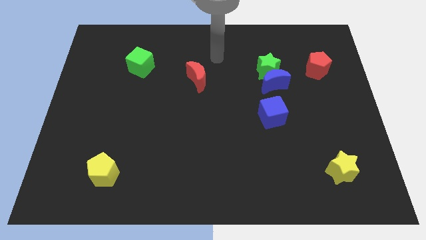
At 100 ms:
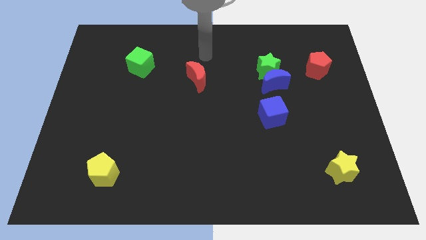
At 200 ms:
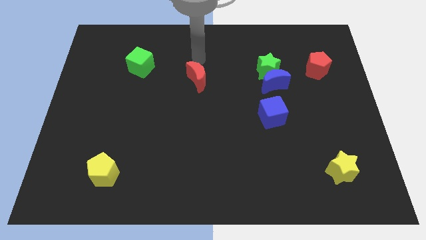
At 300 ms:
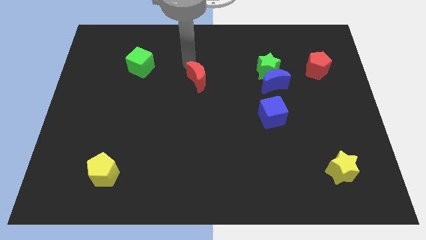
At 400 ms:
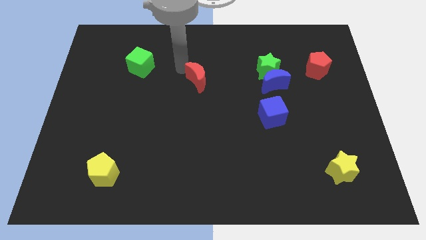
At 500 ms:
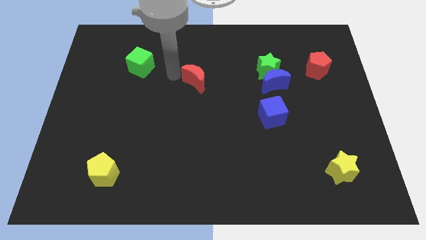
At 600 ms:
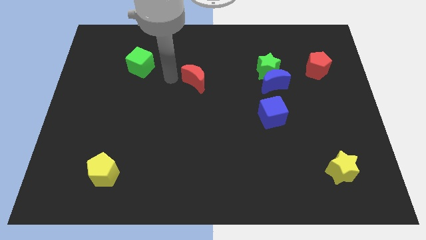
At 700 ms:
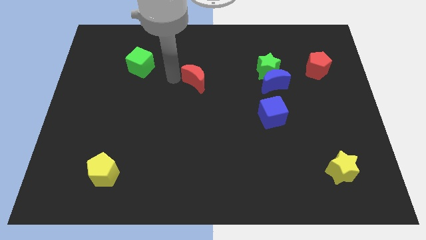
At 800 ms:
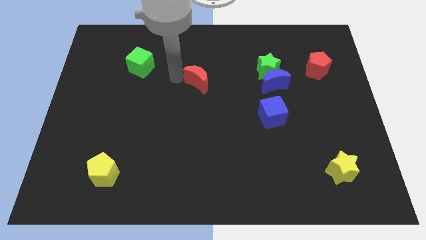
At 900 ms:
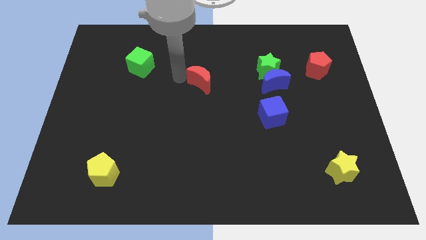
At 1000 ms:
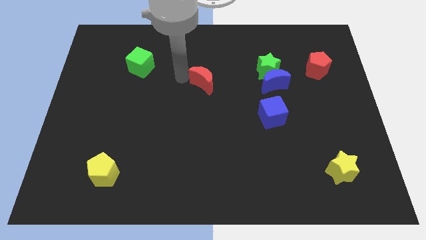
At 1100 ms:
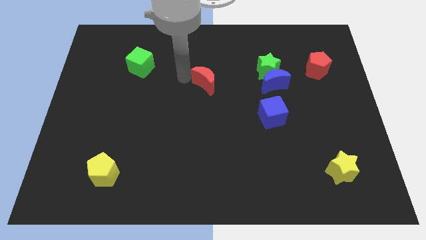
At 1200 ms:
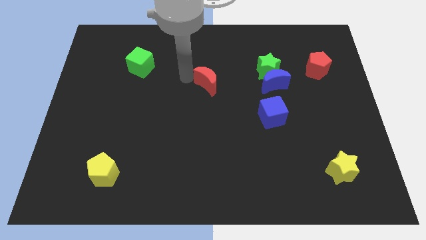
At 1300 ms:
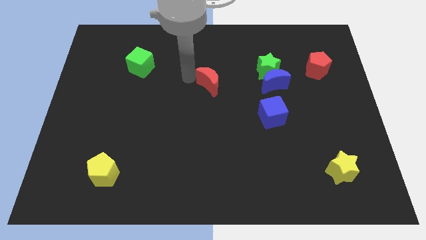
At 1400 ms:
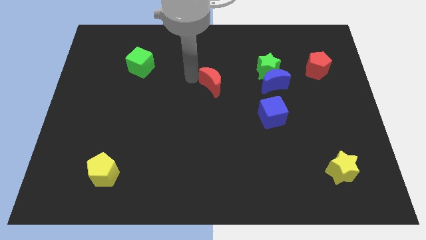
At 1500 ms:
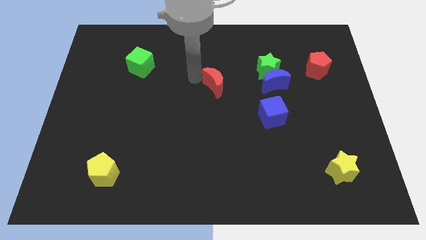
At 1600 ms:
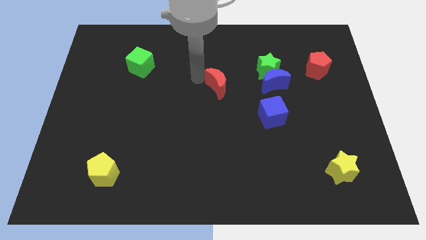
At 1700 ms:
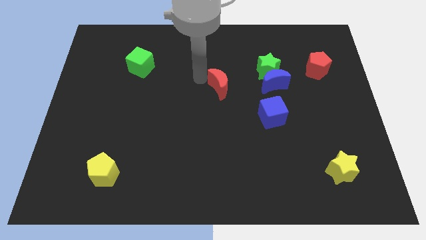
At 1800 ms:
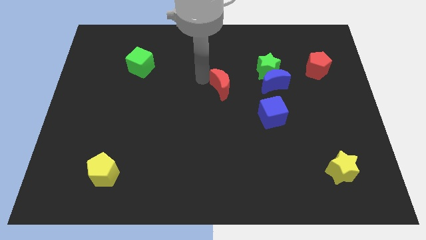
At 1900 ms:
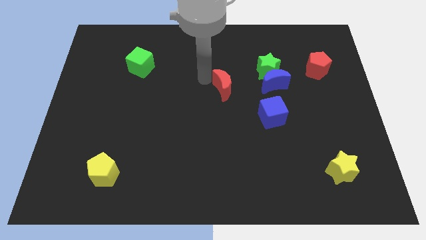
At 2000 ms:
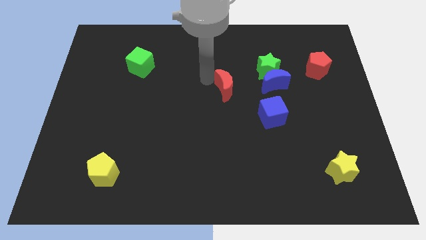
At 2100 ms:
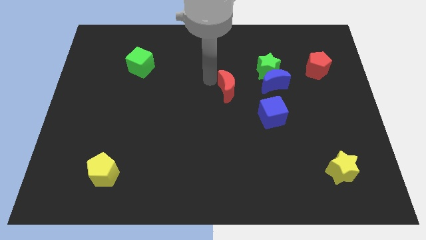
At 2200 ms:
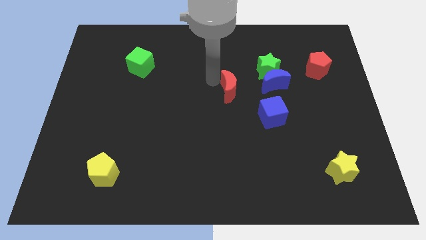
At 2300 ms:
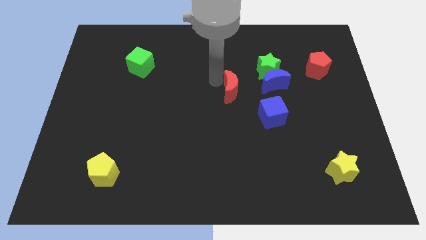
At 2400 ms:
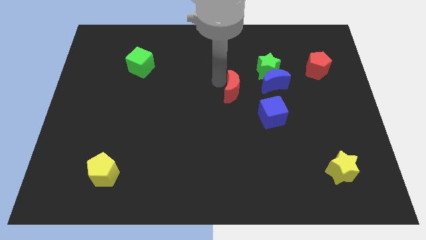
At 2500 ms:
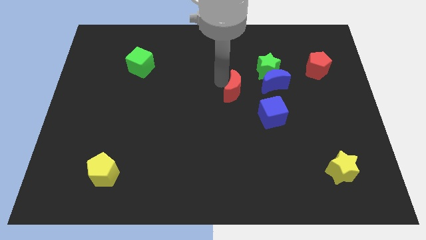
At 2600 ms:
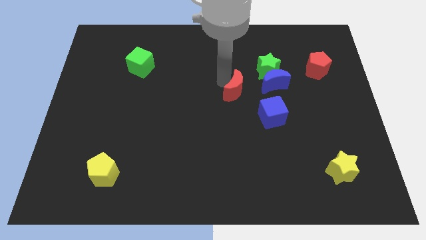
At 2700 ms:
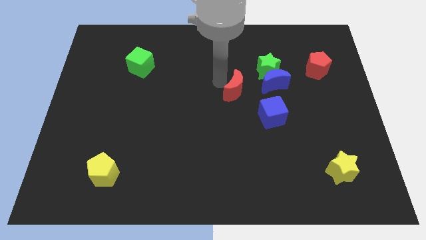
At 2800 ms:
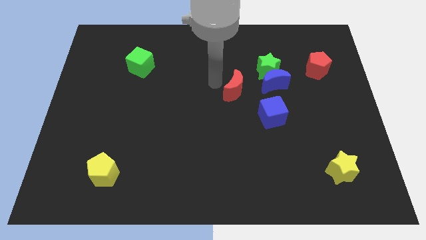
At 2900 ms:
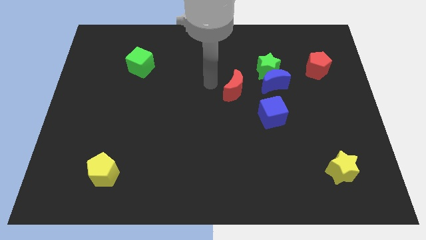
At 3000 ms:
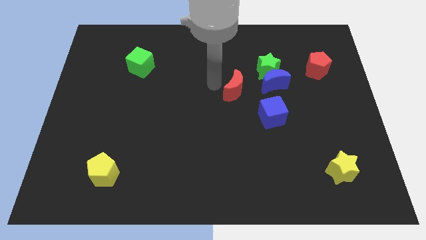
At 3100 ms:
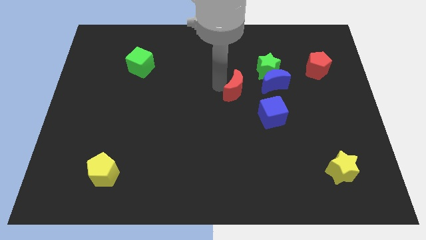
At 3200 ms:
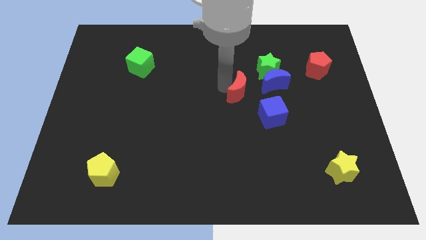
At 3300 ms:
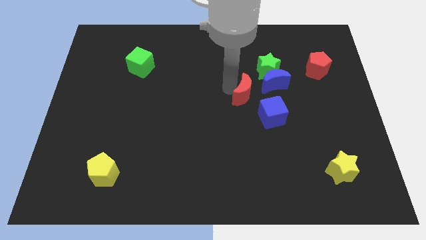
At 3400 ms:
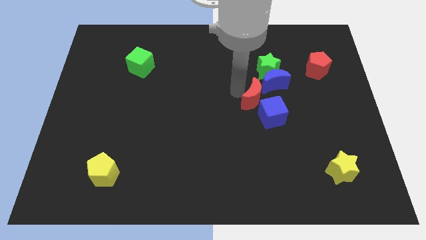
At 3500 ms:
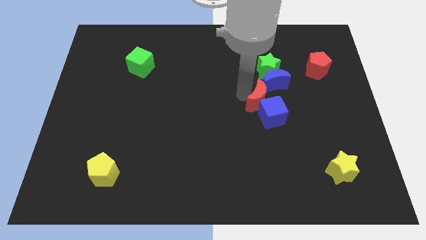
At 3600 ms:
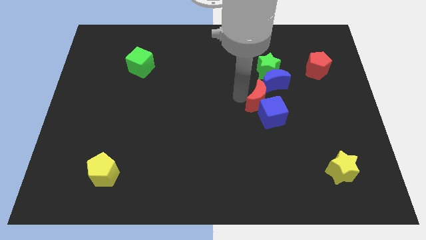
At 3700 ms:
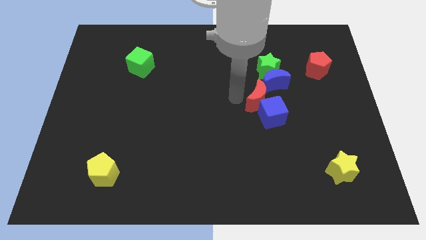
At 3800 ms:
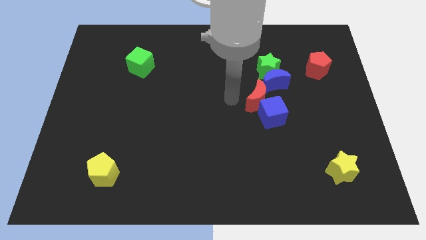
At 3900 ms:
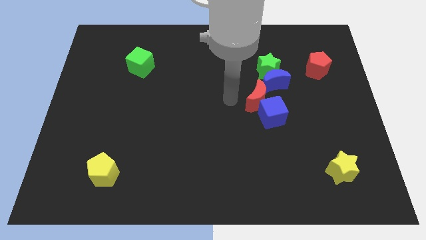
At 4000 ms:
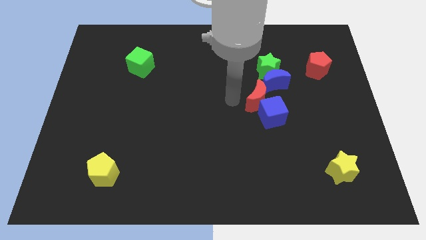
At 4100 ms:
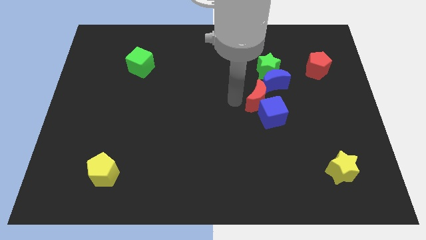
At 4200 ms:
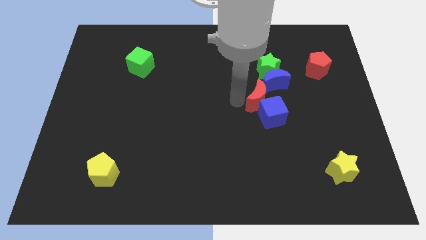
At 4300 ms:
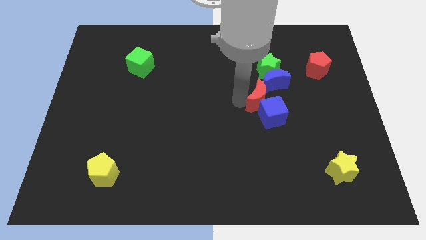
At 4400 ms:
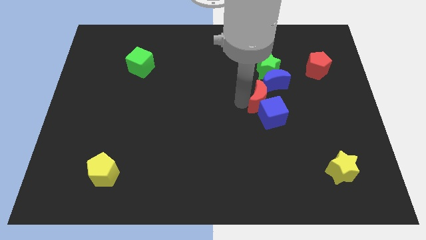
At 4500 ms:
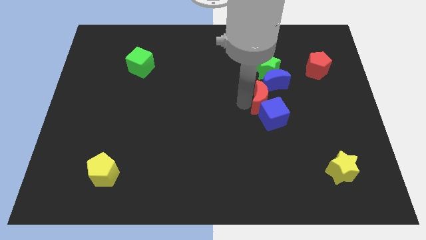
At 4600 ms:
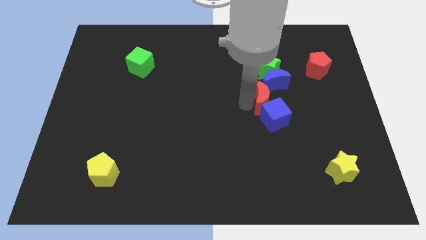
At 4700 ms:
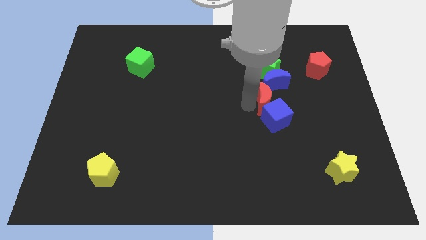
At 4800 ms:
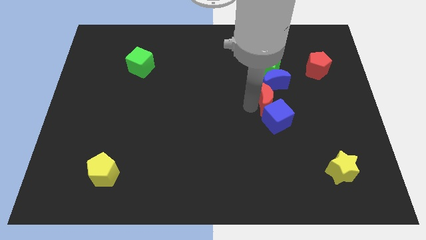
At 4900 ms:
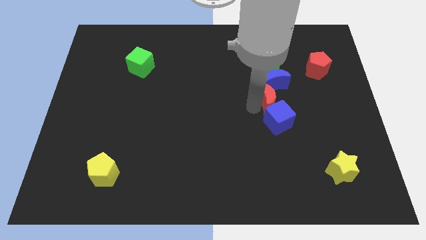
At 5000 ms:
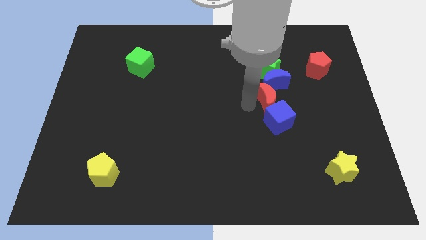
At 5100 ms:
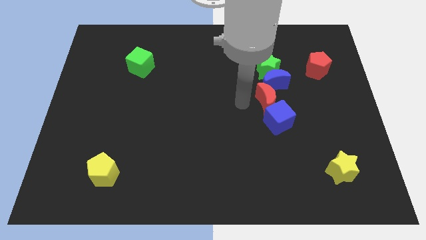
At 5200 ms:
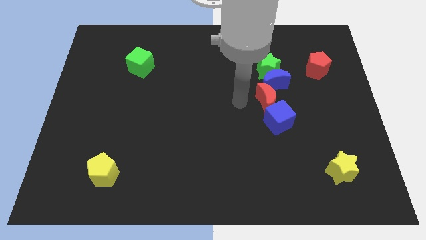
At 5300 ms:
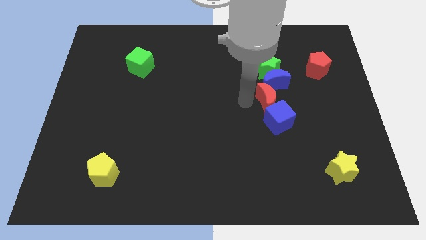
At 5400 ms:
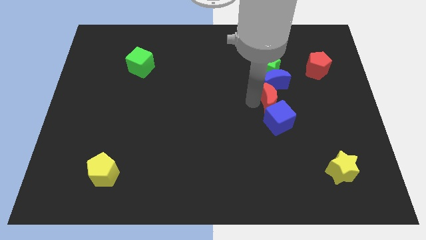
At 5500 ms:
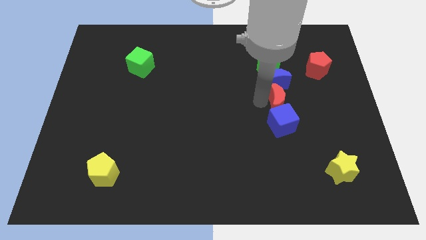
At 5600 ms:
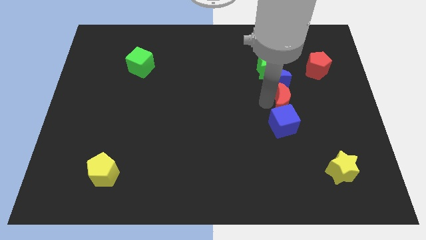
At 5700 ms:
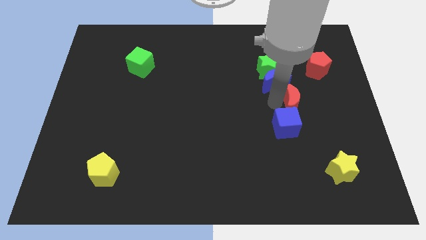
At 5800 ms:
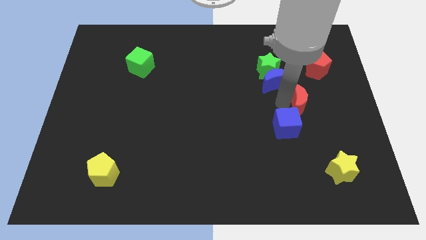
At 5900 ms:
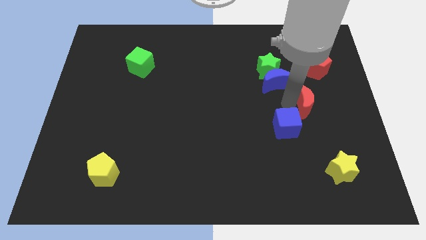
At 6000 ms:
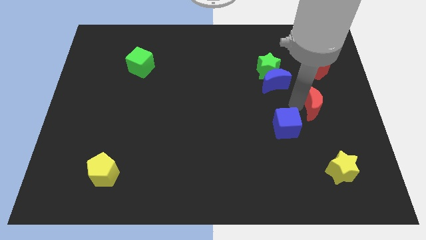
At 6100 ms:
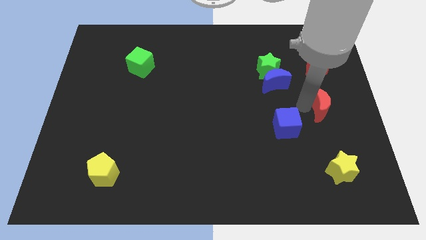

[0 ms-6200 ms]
slide the red moon to the center right

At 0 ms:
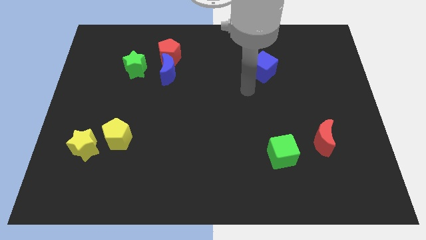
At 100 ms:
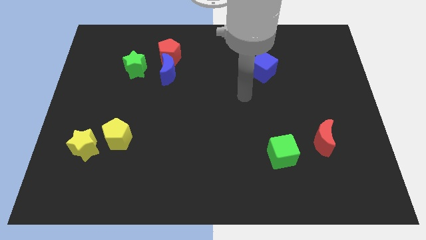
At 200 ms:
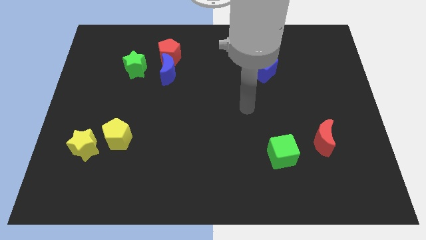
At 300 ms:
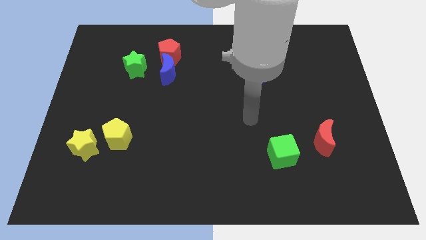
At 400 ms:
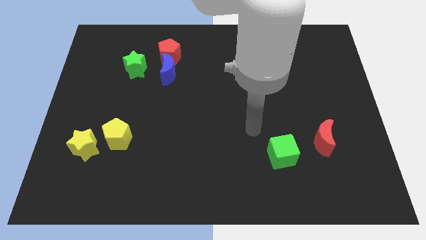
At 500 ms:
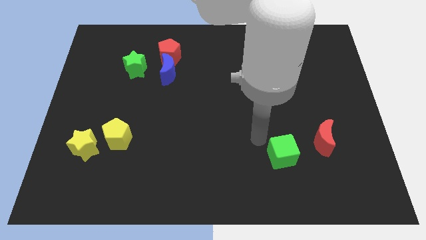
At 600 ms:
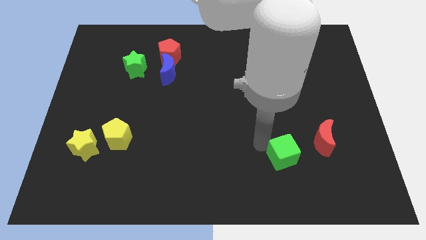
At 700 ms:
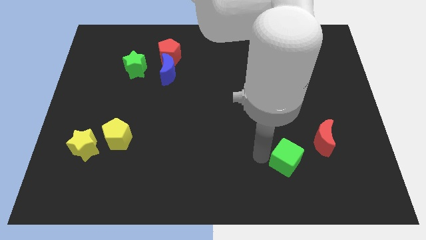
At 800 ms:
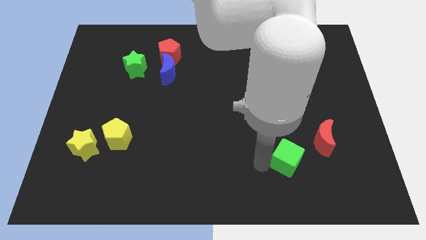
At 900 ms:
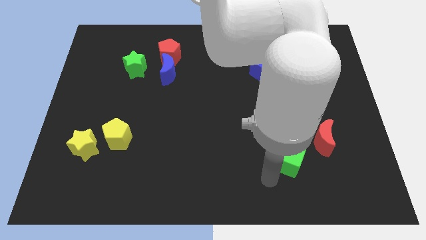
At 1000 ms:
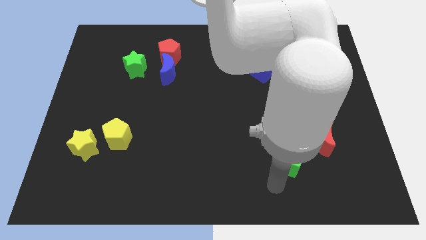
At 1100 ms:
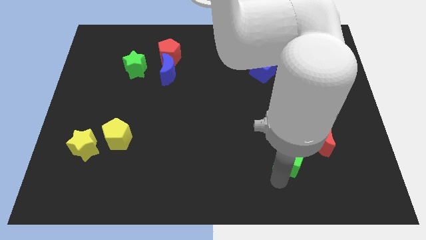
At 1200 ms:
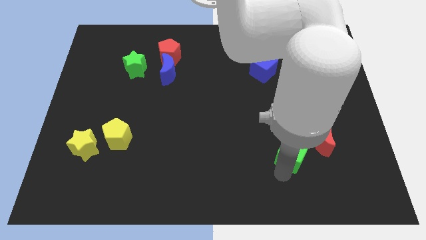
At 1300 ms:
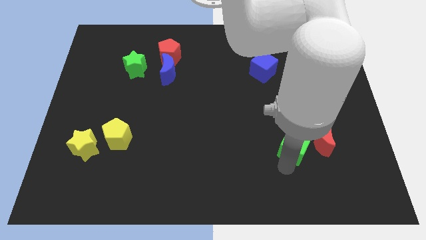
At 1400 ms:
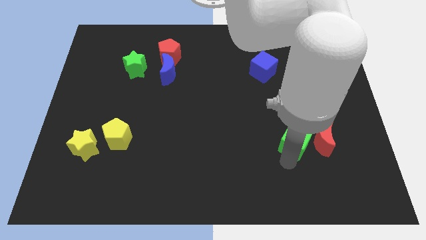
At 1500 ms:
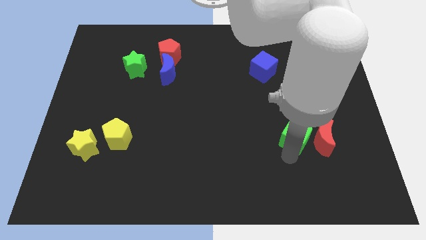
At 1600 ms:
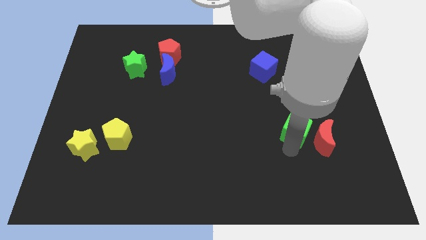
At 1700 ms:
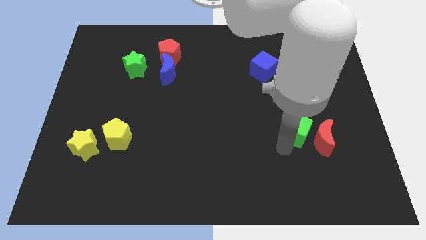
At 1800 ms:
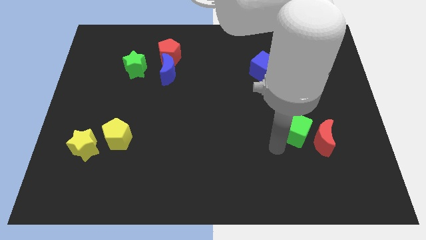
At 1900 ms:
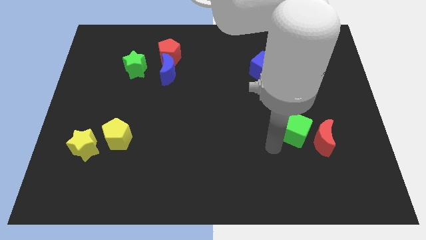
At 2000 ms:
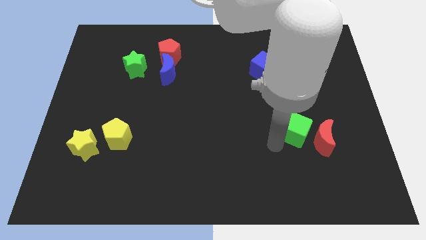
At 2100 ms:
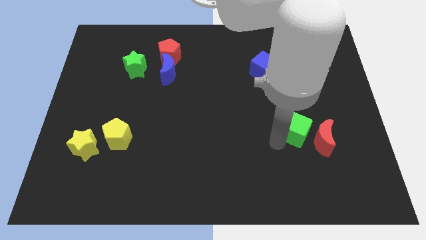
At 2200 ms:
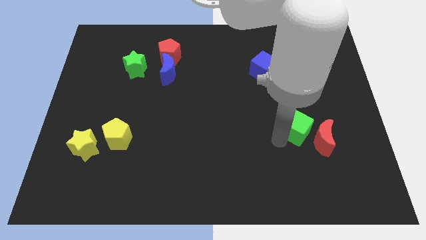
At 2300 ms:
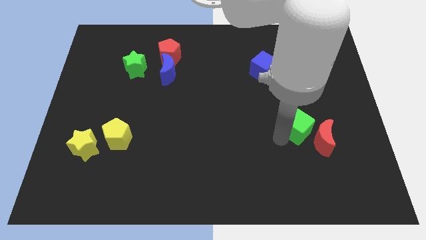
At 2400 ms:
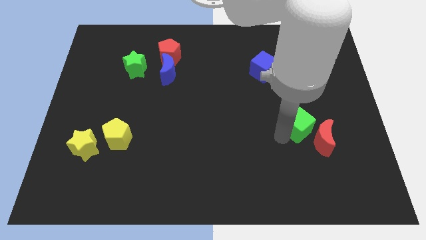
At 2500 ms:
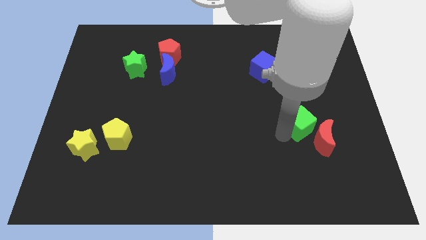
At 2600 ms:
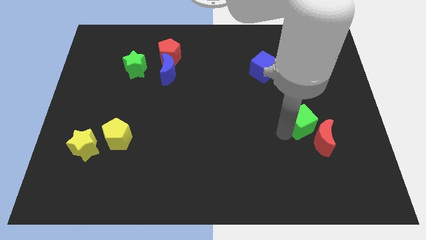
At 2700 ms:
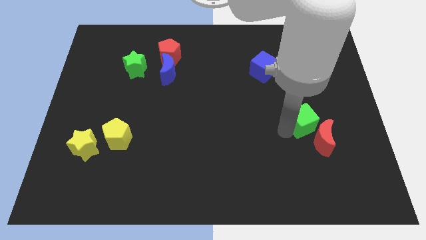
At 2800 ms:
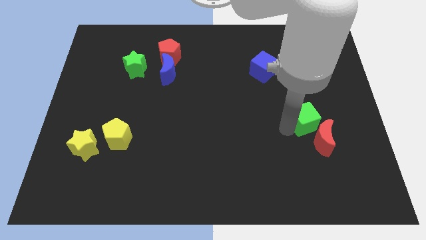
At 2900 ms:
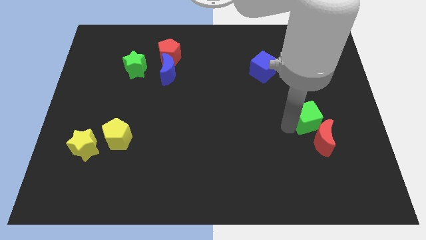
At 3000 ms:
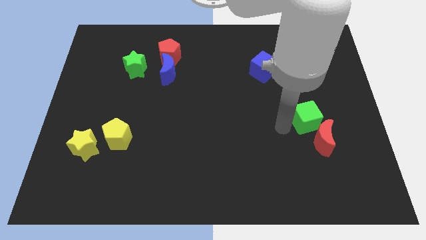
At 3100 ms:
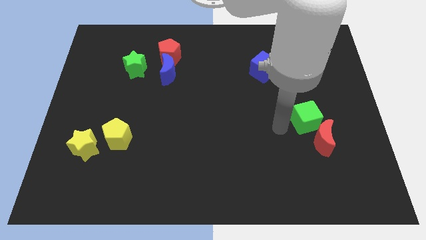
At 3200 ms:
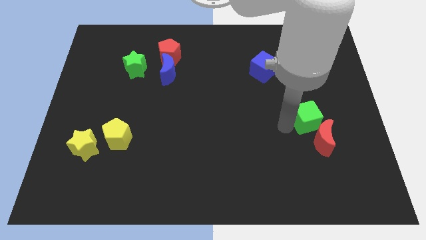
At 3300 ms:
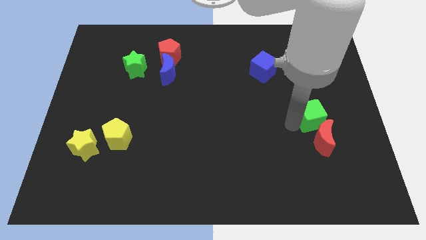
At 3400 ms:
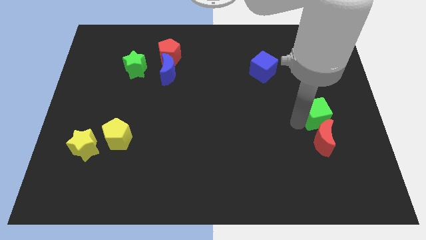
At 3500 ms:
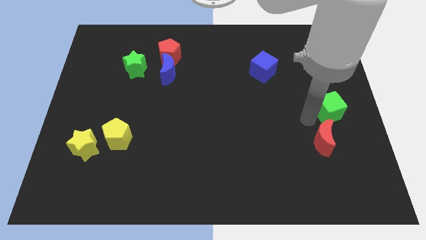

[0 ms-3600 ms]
push the green cube to the right side of the board
